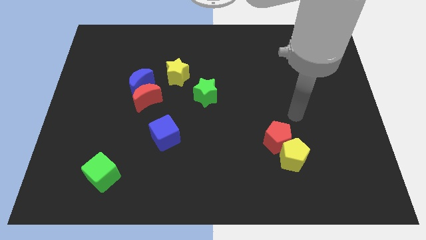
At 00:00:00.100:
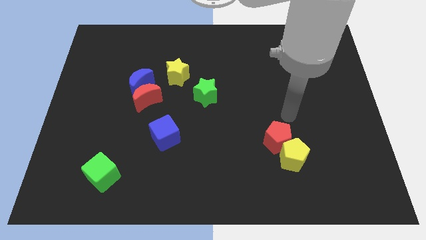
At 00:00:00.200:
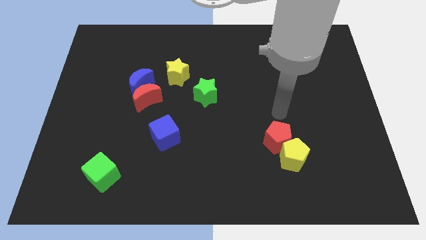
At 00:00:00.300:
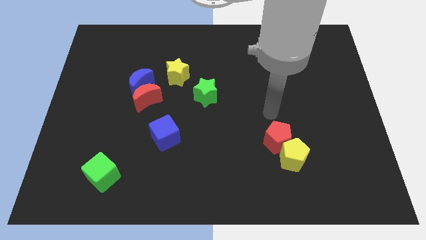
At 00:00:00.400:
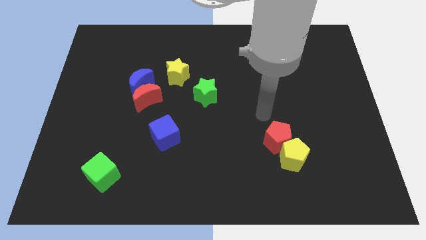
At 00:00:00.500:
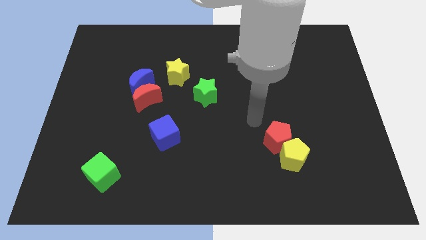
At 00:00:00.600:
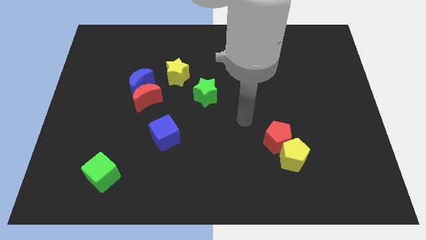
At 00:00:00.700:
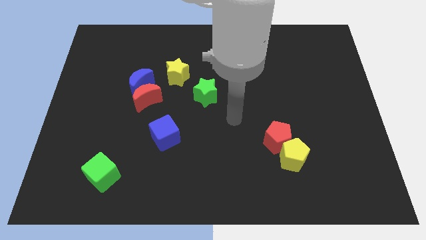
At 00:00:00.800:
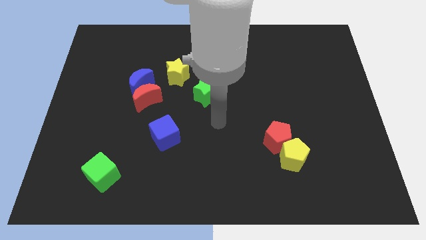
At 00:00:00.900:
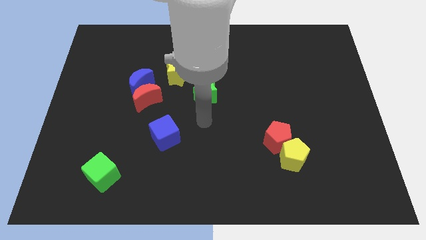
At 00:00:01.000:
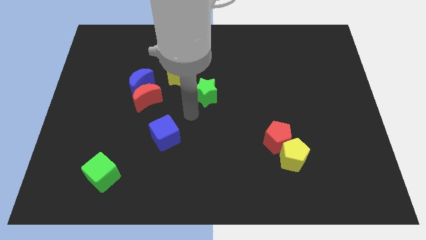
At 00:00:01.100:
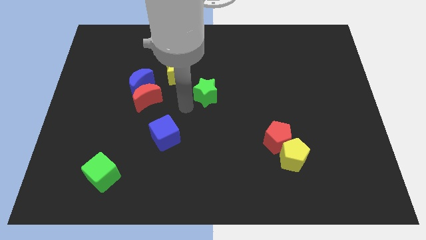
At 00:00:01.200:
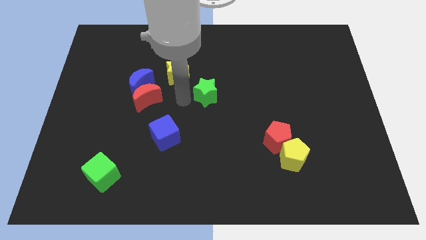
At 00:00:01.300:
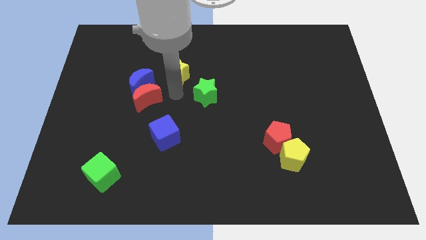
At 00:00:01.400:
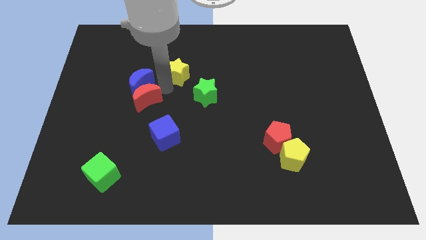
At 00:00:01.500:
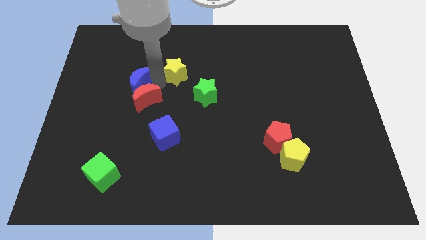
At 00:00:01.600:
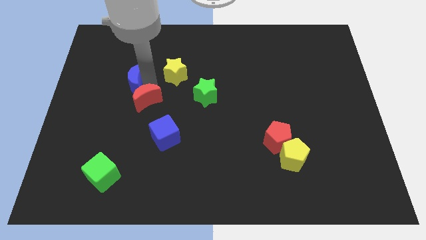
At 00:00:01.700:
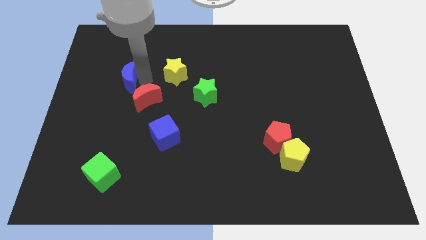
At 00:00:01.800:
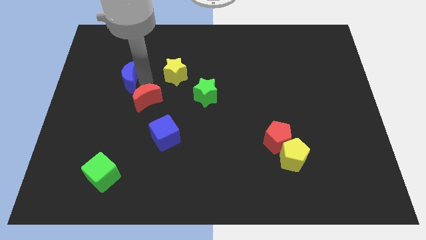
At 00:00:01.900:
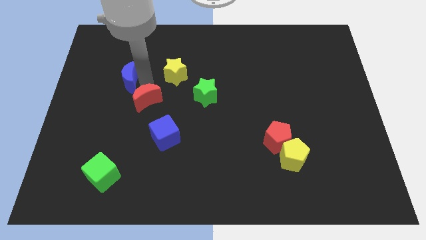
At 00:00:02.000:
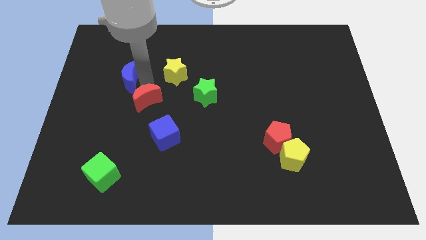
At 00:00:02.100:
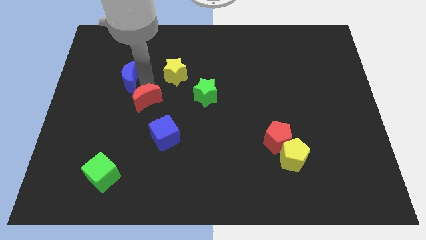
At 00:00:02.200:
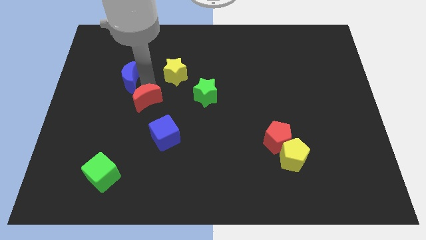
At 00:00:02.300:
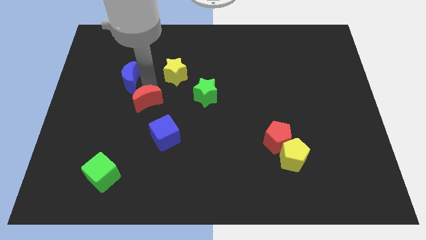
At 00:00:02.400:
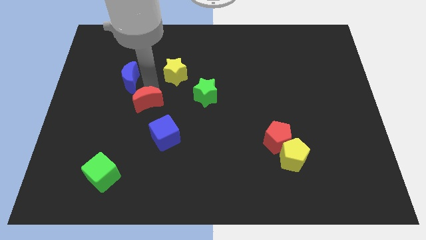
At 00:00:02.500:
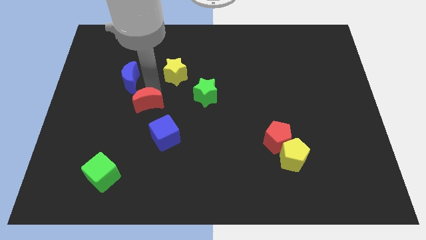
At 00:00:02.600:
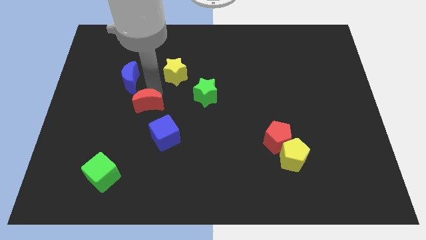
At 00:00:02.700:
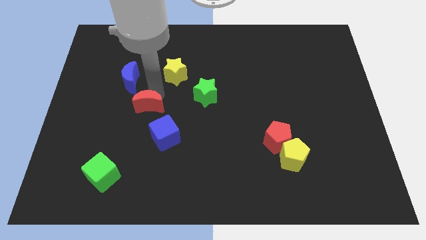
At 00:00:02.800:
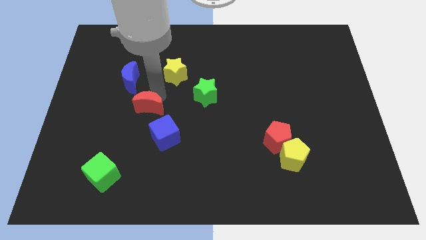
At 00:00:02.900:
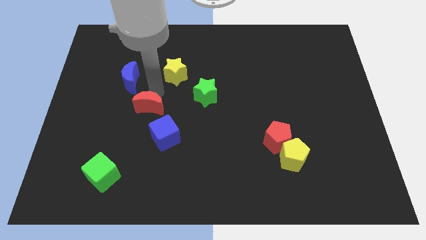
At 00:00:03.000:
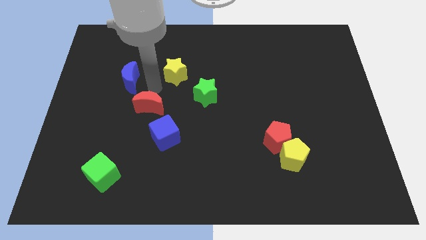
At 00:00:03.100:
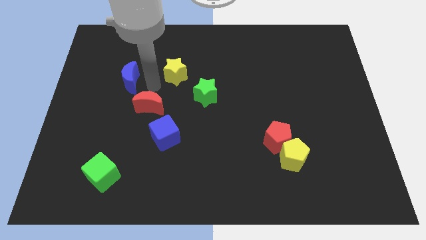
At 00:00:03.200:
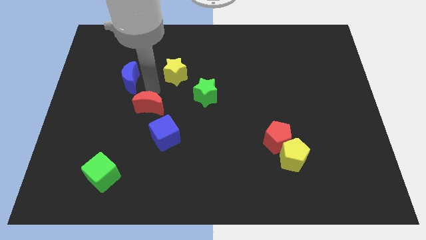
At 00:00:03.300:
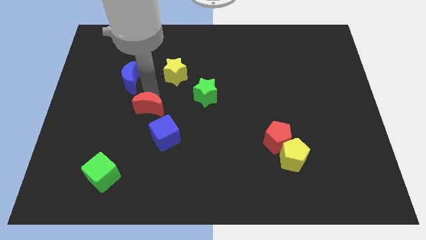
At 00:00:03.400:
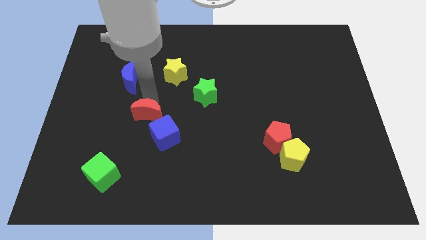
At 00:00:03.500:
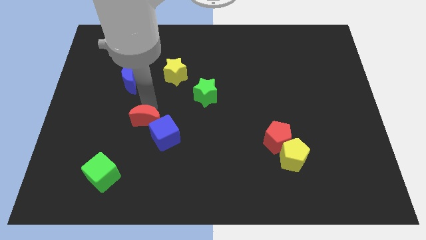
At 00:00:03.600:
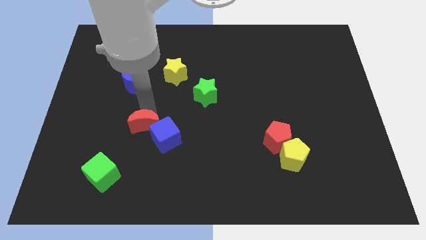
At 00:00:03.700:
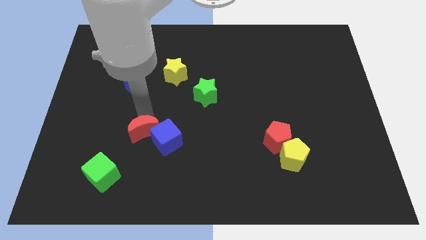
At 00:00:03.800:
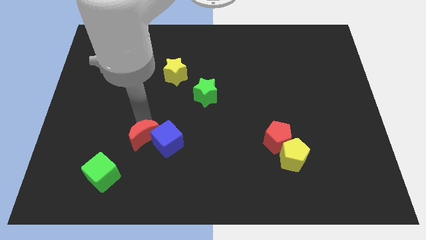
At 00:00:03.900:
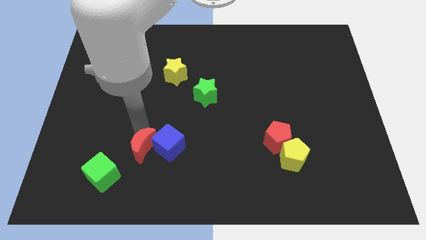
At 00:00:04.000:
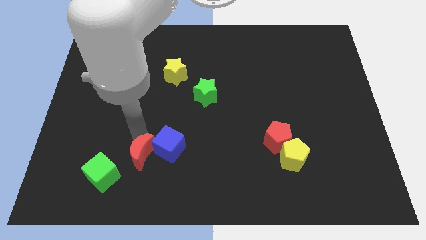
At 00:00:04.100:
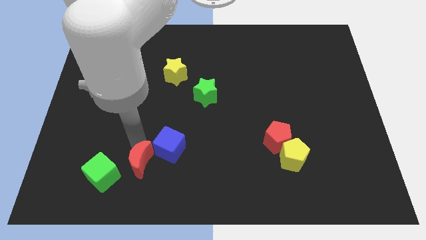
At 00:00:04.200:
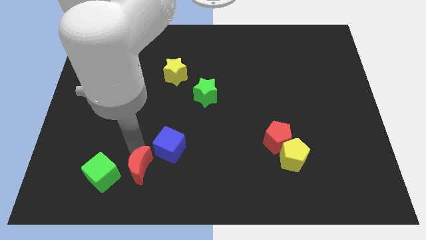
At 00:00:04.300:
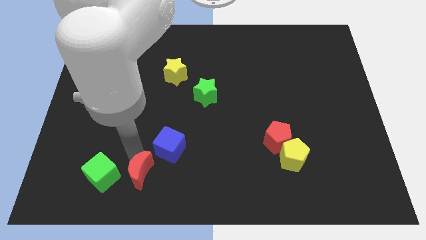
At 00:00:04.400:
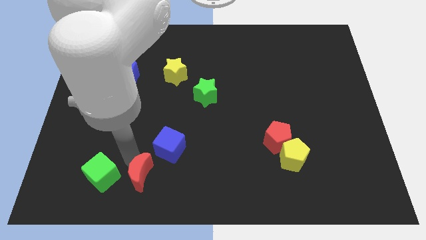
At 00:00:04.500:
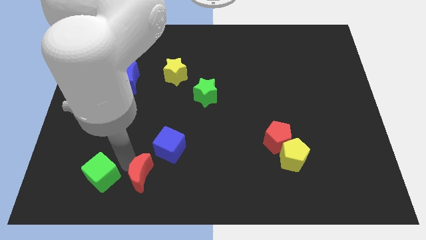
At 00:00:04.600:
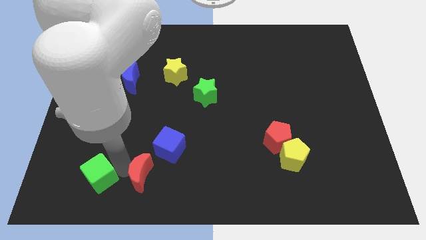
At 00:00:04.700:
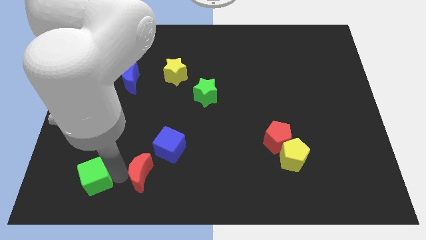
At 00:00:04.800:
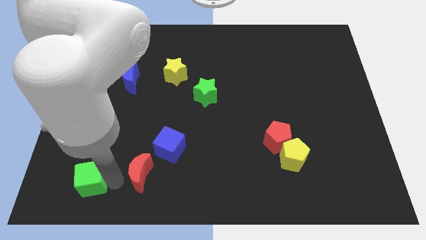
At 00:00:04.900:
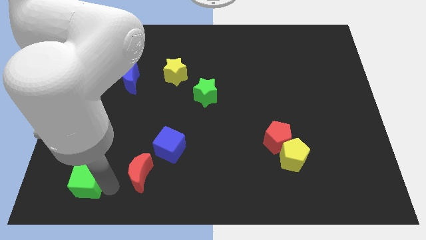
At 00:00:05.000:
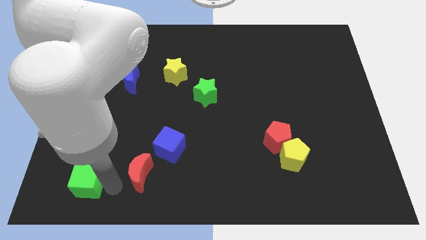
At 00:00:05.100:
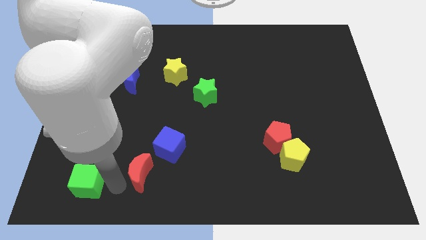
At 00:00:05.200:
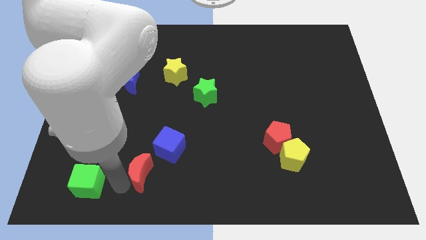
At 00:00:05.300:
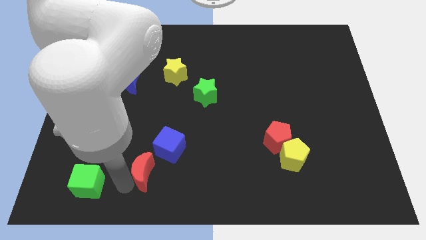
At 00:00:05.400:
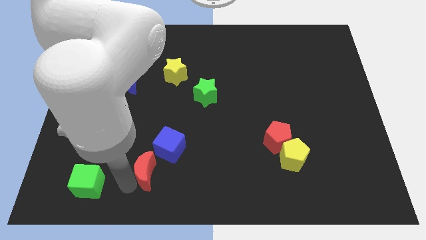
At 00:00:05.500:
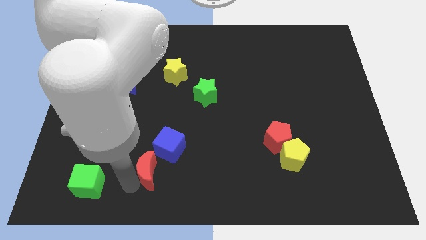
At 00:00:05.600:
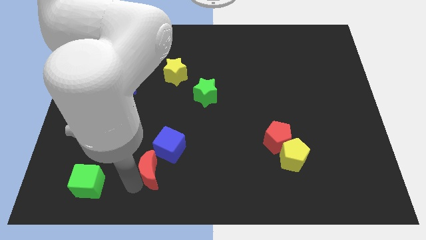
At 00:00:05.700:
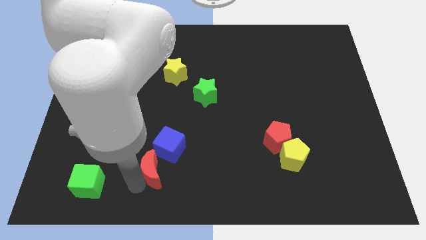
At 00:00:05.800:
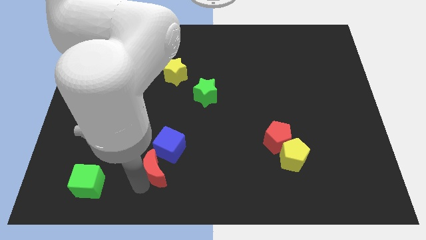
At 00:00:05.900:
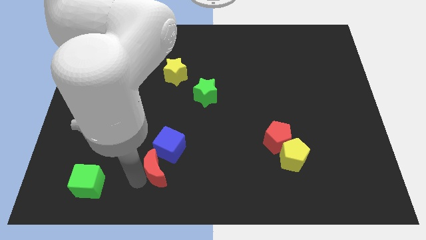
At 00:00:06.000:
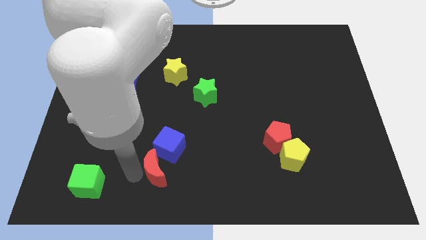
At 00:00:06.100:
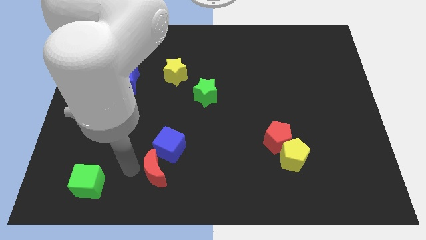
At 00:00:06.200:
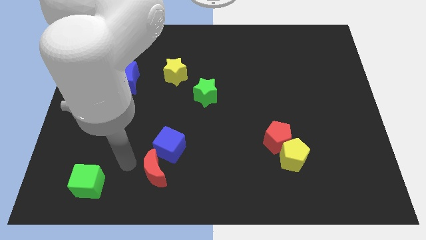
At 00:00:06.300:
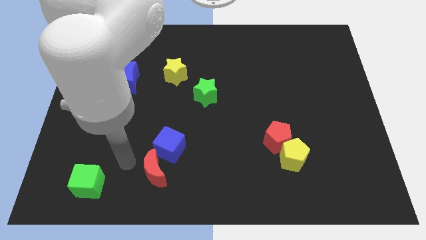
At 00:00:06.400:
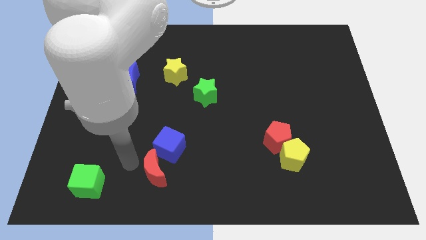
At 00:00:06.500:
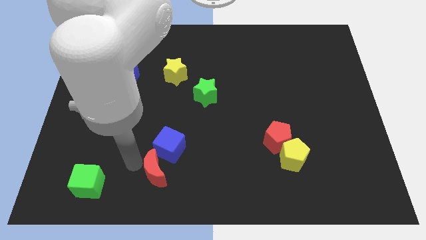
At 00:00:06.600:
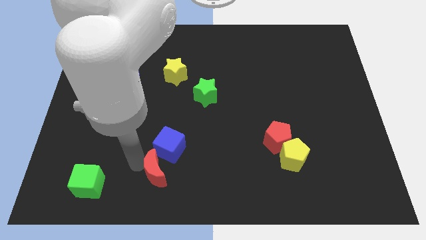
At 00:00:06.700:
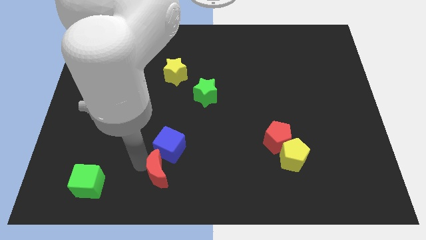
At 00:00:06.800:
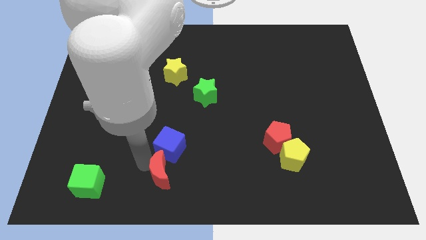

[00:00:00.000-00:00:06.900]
put the red moon to the bottom side
